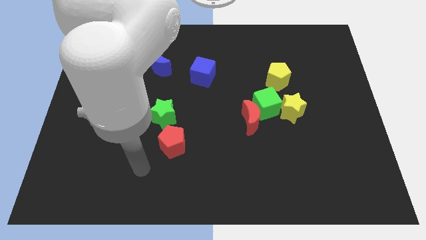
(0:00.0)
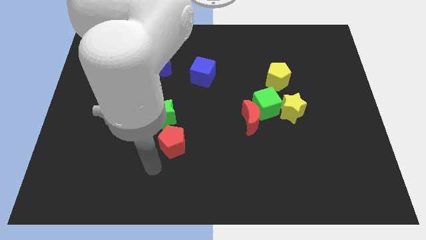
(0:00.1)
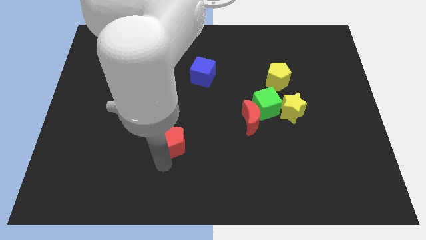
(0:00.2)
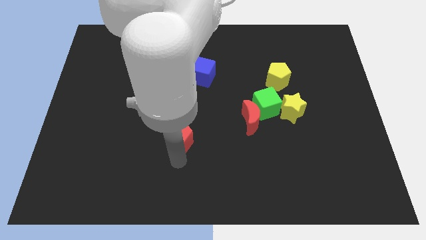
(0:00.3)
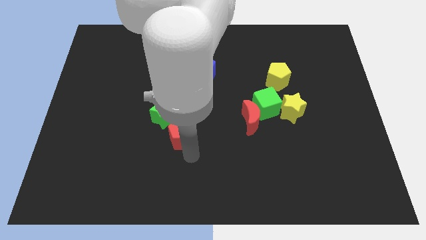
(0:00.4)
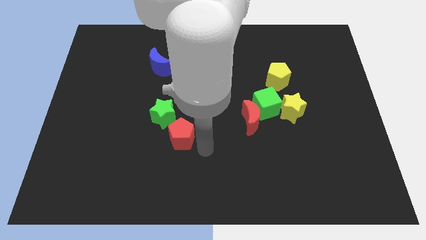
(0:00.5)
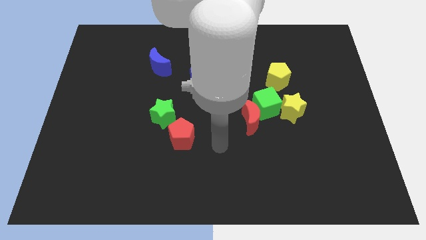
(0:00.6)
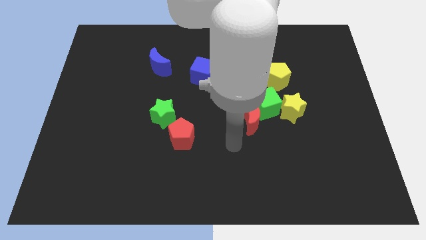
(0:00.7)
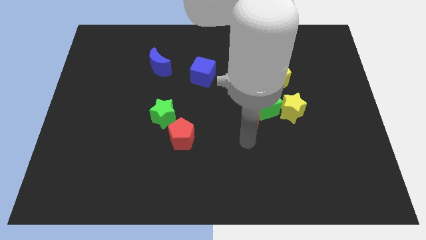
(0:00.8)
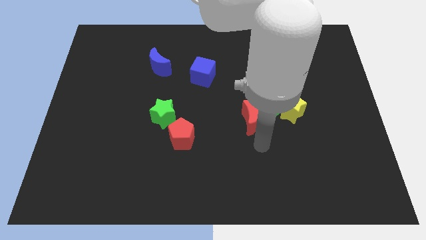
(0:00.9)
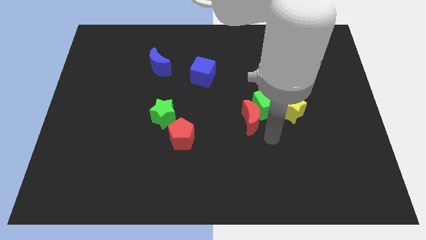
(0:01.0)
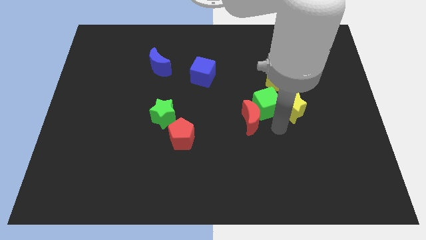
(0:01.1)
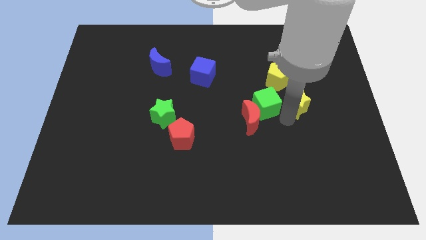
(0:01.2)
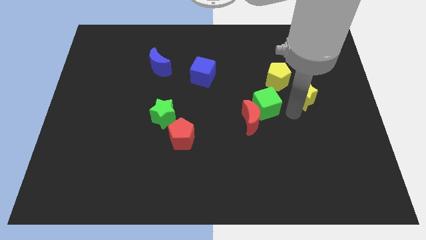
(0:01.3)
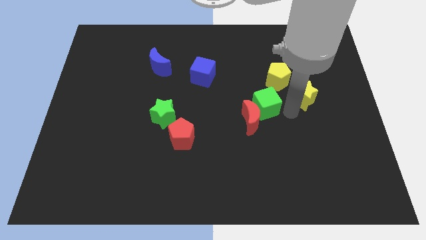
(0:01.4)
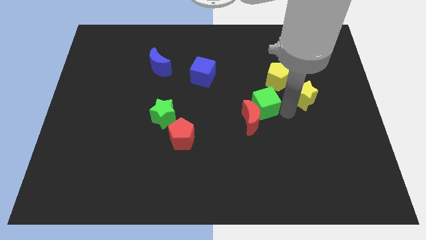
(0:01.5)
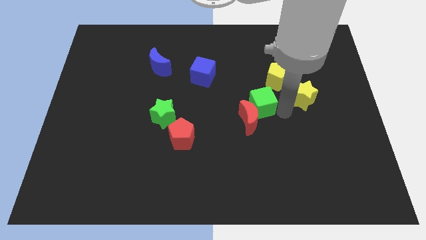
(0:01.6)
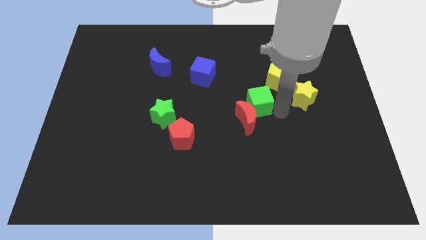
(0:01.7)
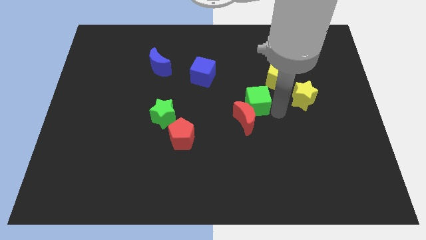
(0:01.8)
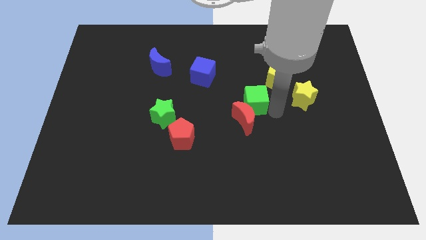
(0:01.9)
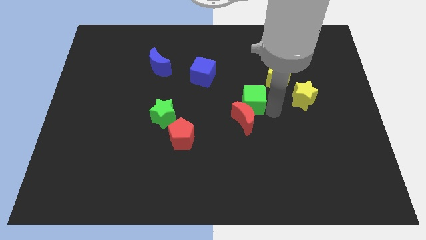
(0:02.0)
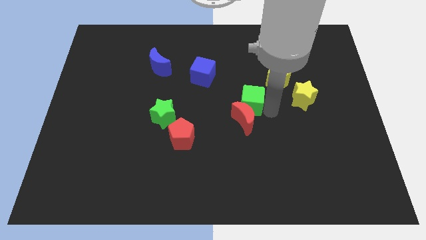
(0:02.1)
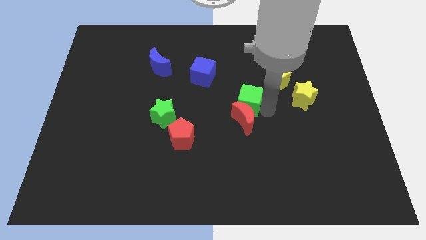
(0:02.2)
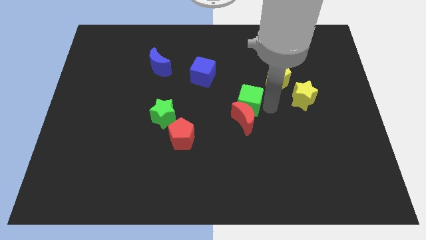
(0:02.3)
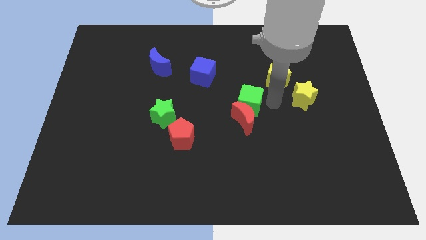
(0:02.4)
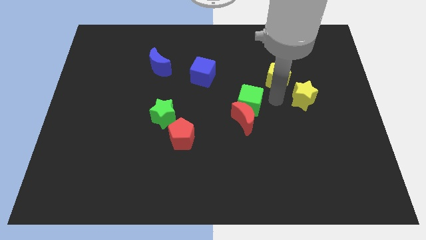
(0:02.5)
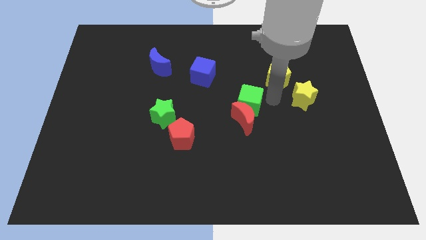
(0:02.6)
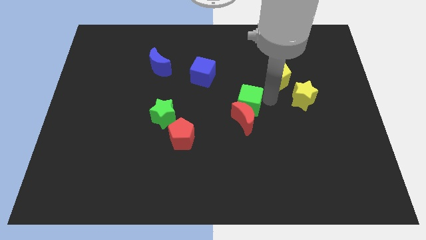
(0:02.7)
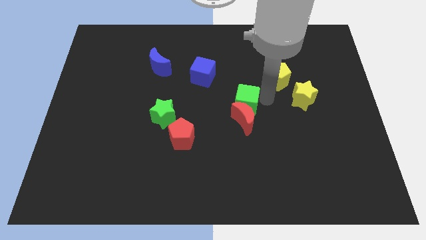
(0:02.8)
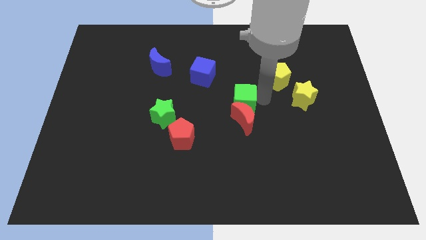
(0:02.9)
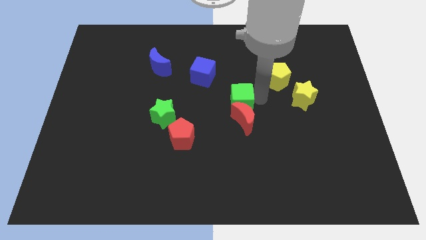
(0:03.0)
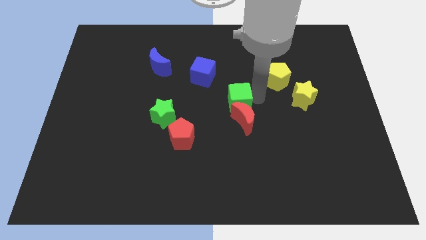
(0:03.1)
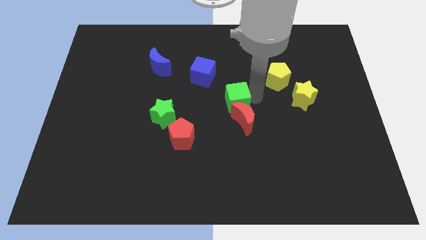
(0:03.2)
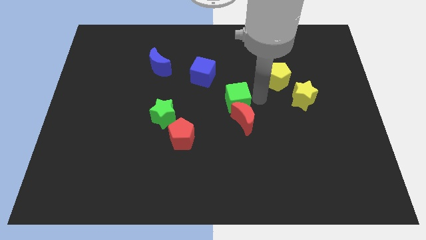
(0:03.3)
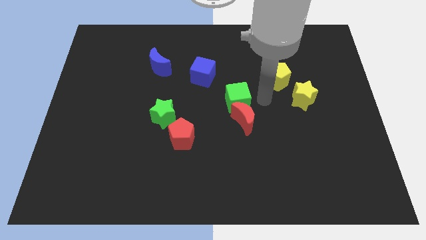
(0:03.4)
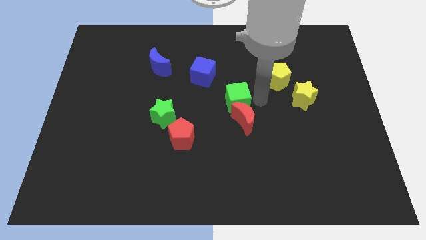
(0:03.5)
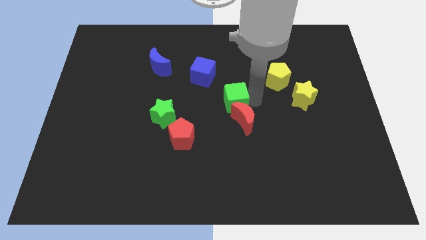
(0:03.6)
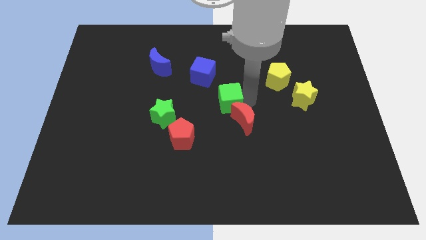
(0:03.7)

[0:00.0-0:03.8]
pull the green cube apart from the group of blocks

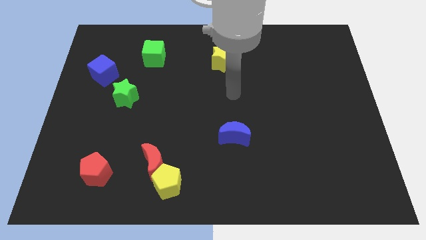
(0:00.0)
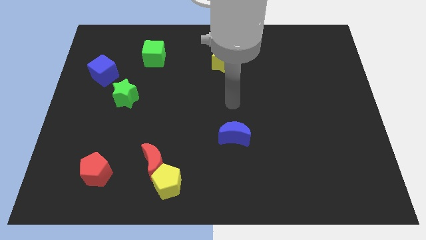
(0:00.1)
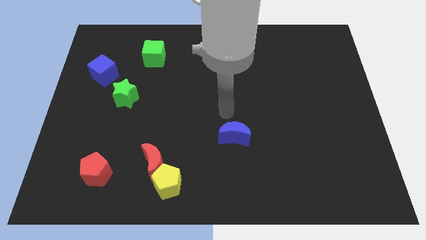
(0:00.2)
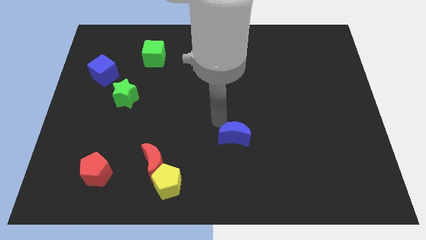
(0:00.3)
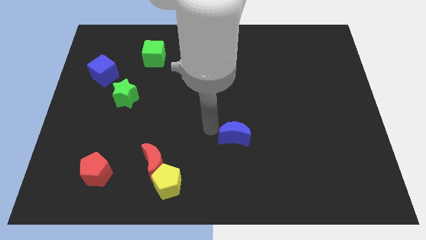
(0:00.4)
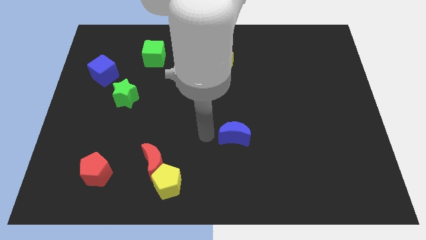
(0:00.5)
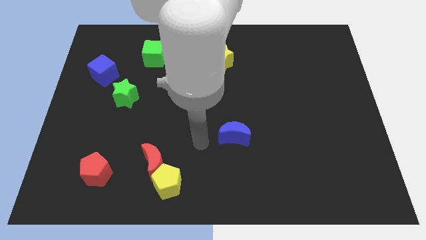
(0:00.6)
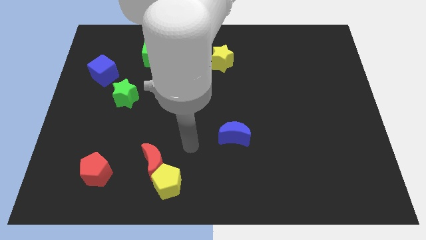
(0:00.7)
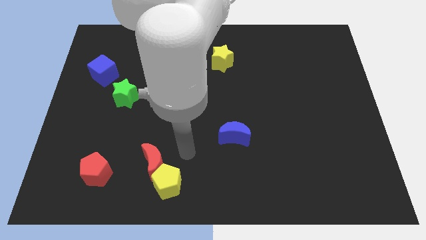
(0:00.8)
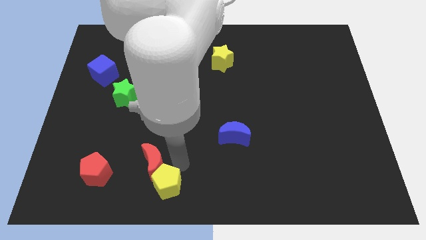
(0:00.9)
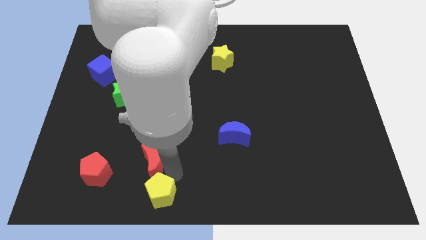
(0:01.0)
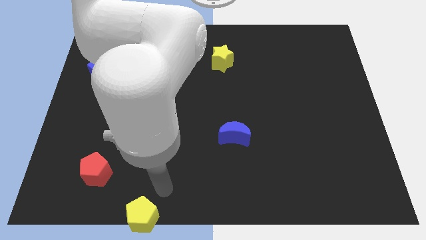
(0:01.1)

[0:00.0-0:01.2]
pull the red moon apart from the yellow pentagon

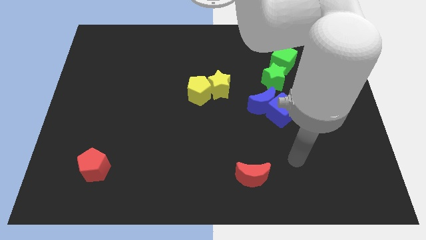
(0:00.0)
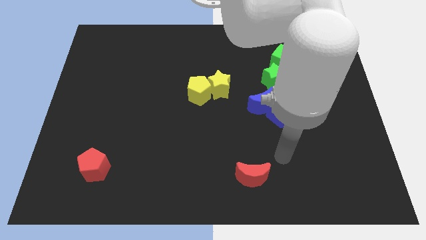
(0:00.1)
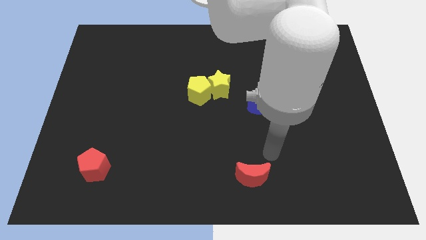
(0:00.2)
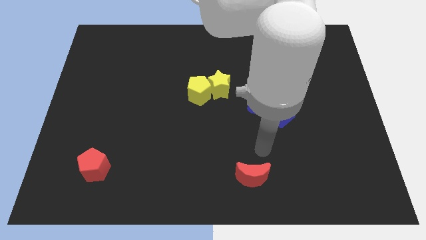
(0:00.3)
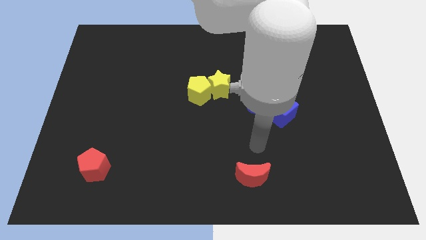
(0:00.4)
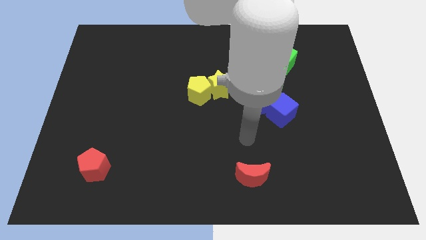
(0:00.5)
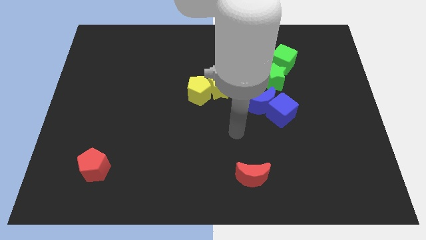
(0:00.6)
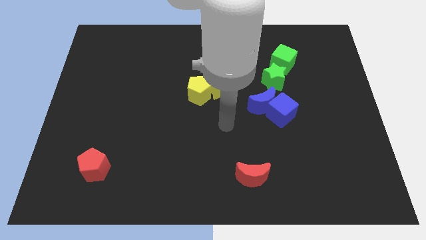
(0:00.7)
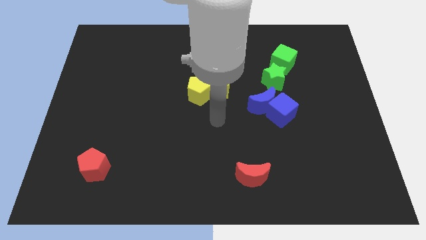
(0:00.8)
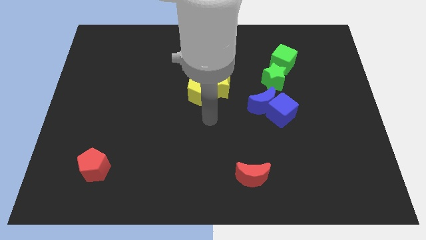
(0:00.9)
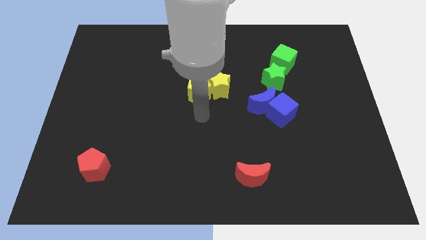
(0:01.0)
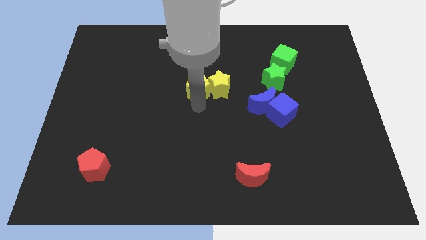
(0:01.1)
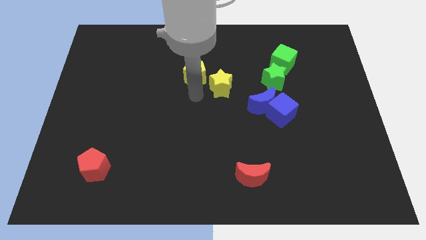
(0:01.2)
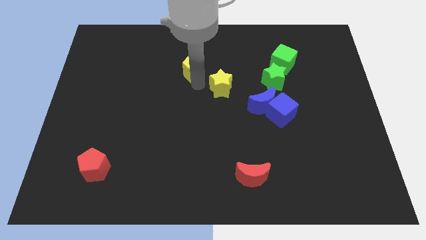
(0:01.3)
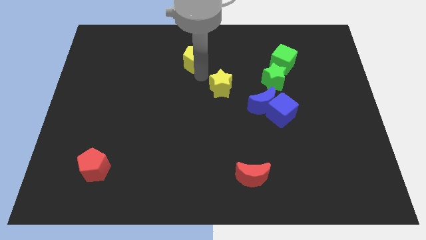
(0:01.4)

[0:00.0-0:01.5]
pull the yellow star apart from the yellow pentagon

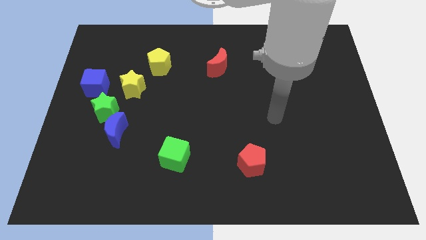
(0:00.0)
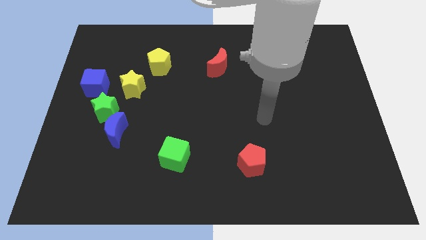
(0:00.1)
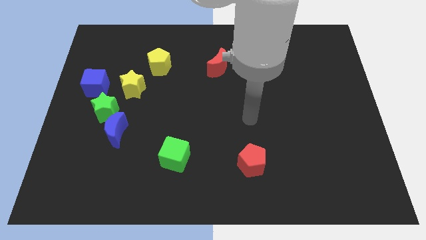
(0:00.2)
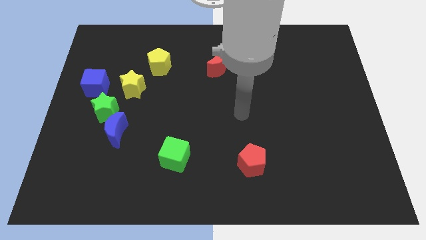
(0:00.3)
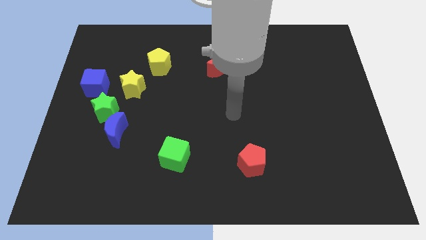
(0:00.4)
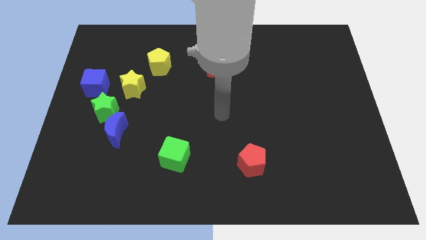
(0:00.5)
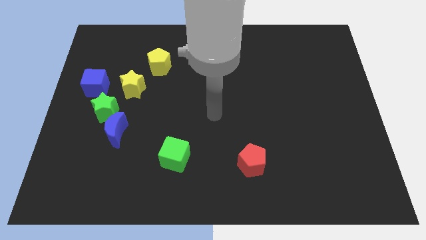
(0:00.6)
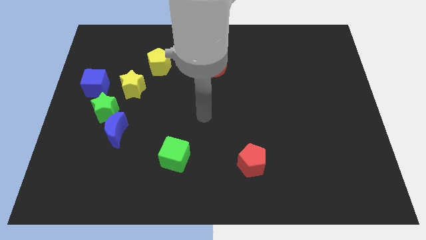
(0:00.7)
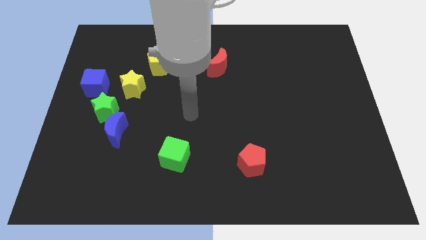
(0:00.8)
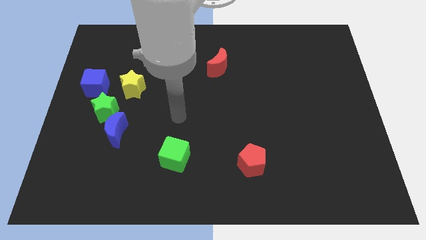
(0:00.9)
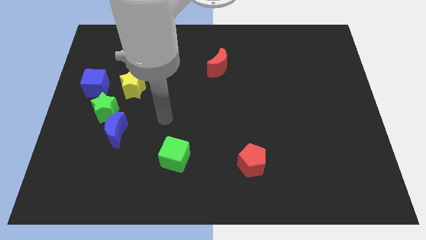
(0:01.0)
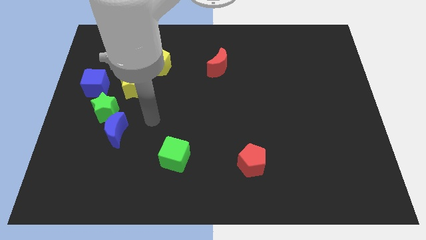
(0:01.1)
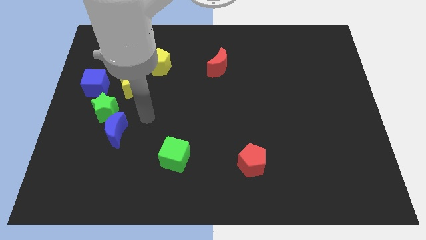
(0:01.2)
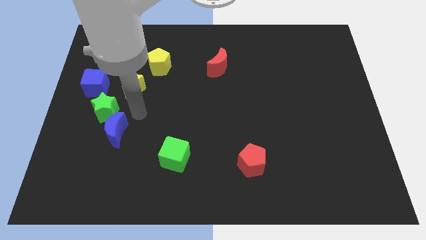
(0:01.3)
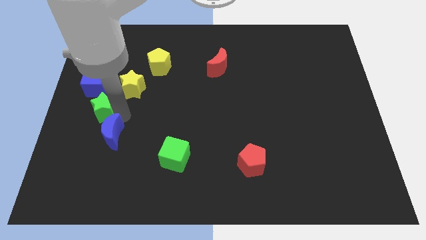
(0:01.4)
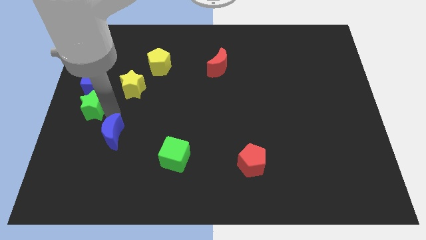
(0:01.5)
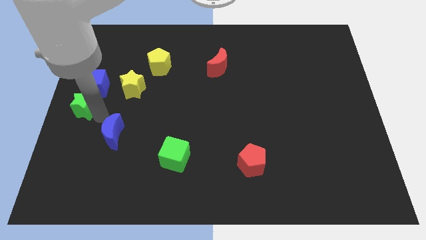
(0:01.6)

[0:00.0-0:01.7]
pull the blue moon apart from the green star

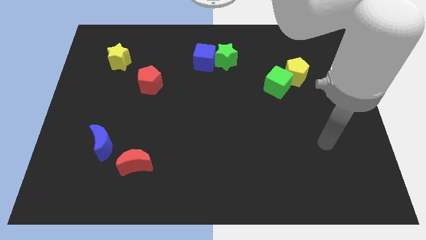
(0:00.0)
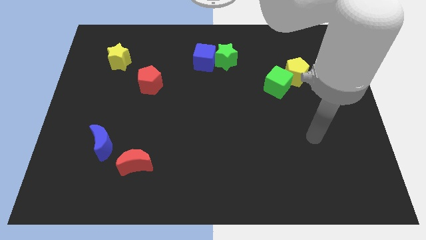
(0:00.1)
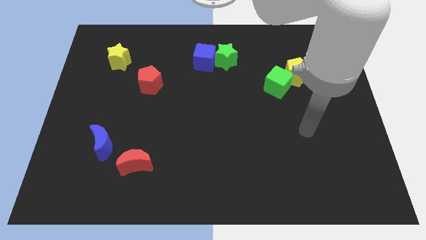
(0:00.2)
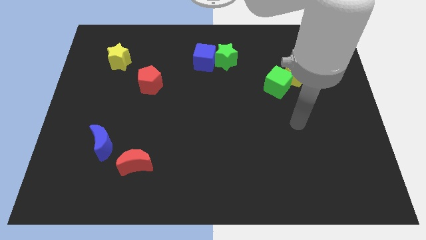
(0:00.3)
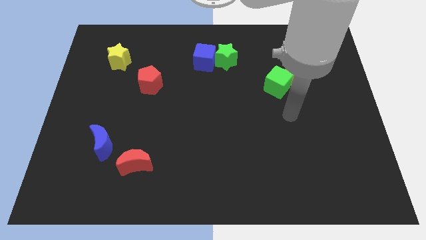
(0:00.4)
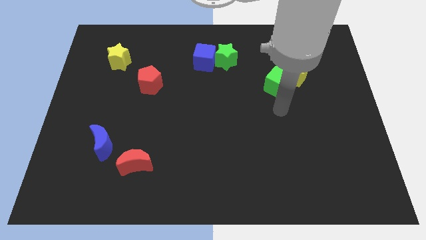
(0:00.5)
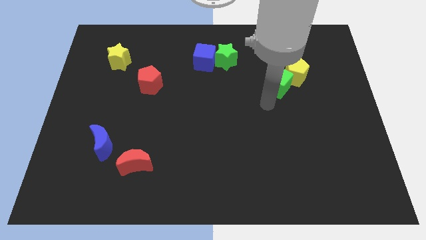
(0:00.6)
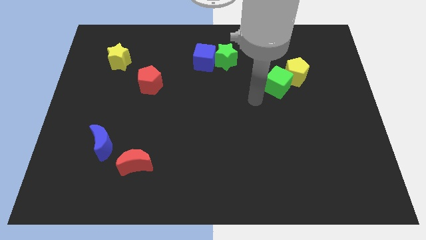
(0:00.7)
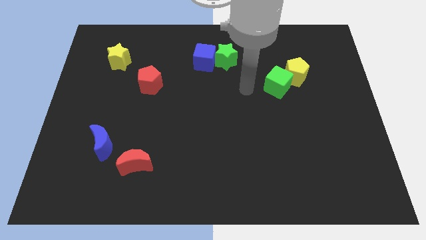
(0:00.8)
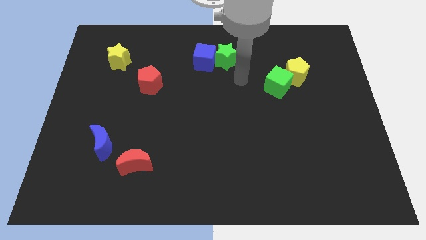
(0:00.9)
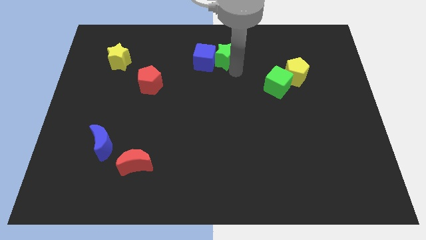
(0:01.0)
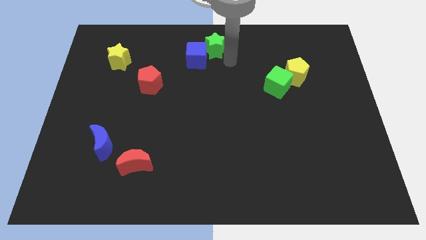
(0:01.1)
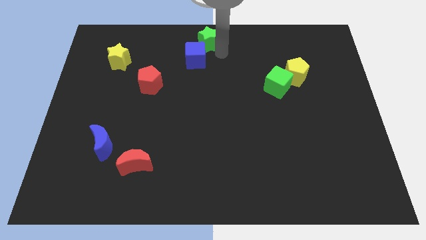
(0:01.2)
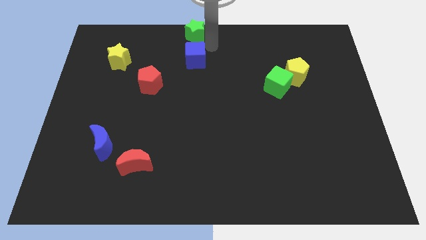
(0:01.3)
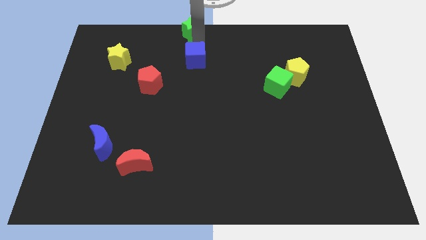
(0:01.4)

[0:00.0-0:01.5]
separate the blue cube from the green star
